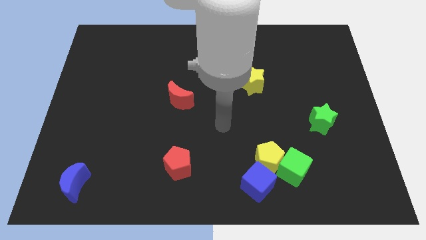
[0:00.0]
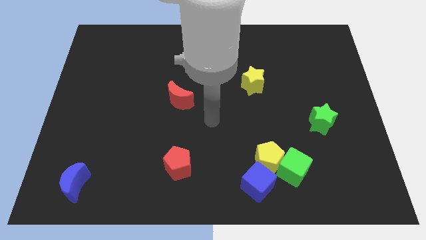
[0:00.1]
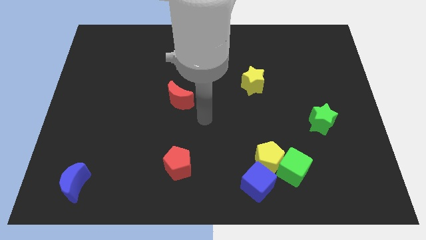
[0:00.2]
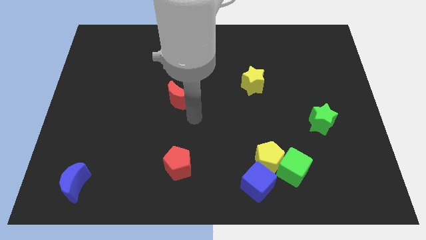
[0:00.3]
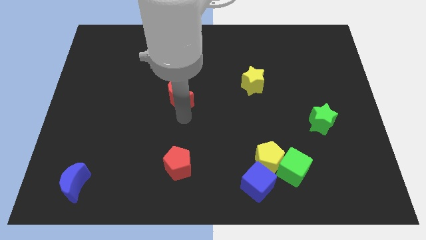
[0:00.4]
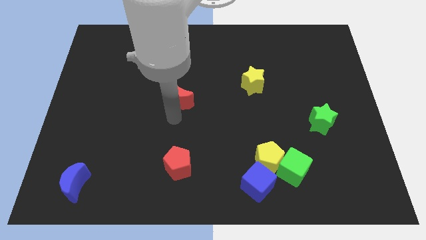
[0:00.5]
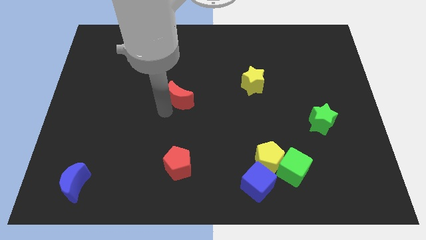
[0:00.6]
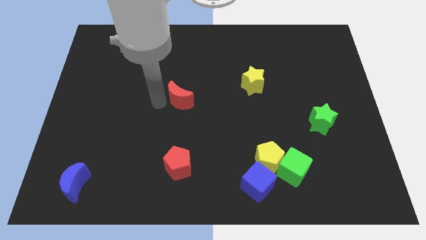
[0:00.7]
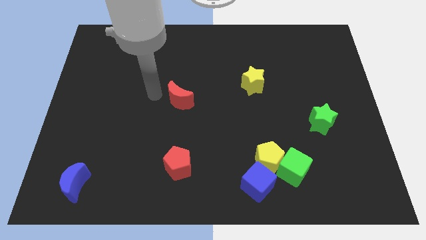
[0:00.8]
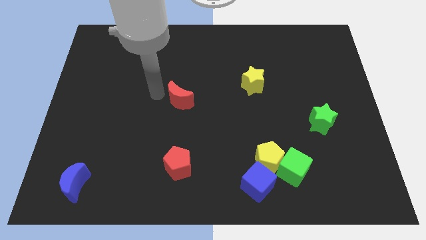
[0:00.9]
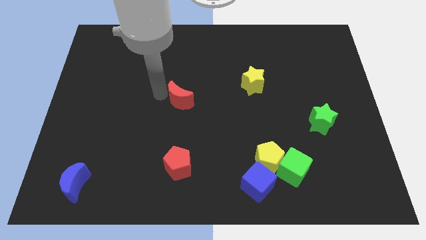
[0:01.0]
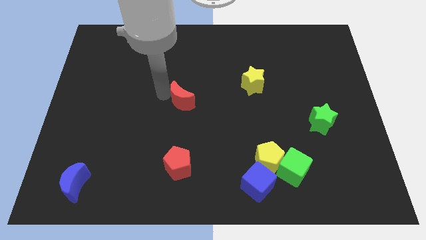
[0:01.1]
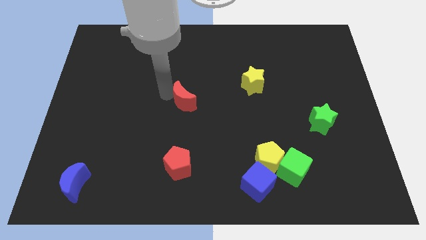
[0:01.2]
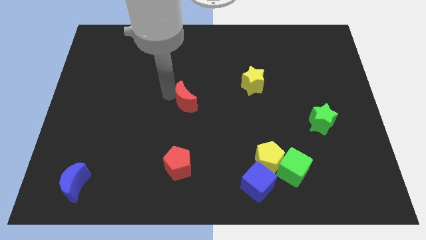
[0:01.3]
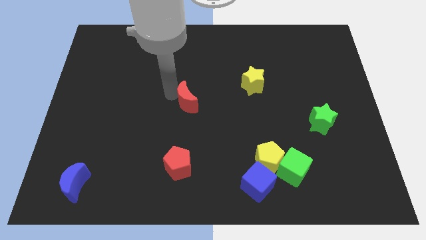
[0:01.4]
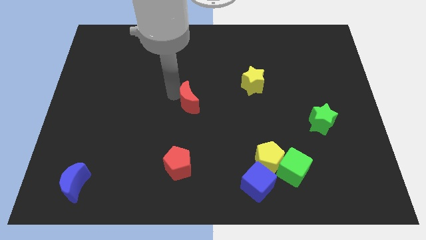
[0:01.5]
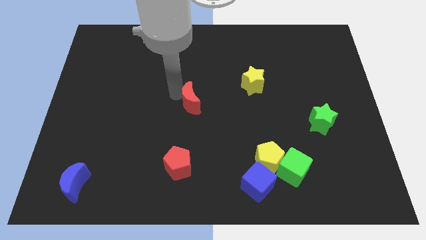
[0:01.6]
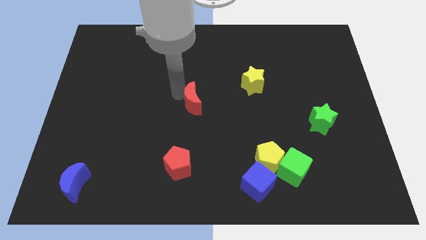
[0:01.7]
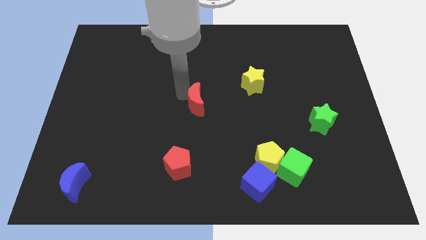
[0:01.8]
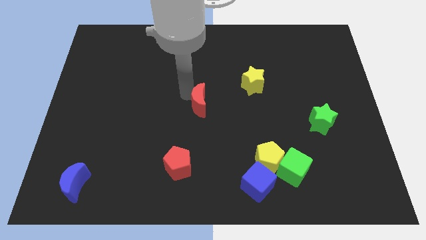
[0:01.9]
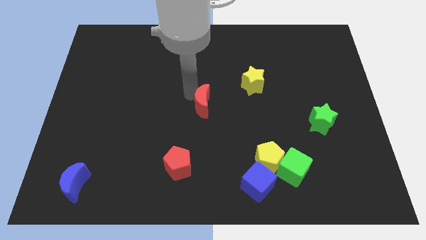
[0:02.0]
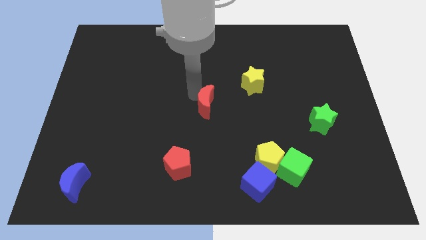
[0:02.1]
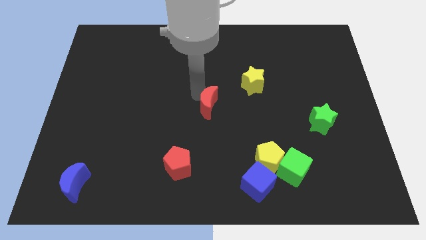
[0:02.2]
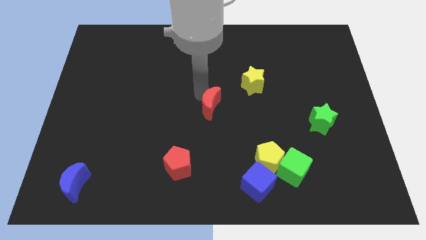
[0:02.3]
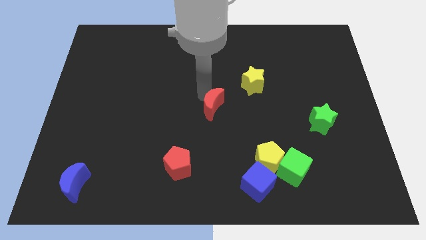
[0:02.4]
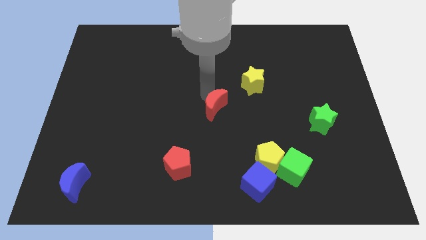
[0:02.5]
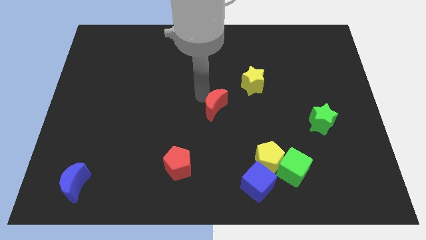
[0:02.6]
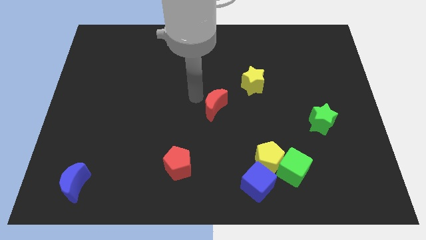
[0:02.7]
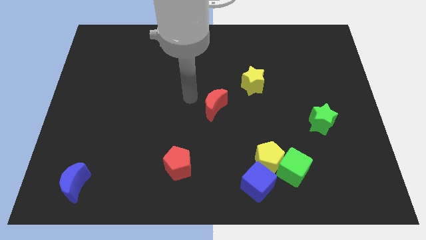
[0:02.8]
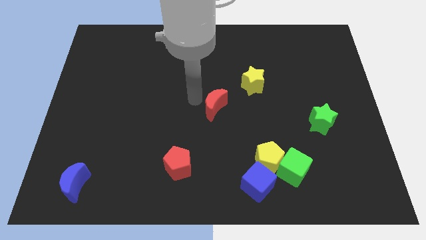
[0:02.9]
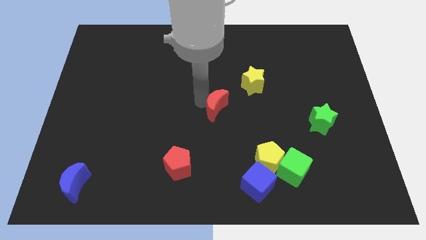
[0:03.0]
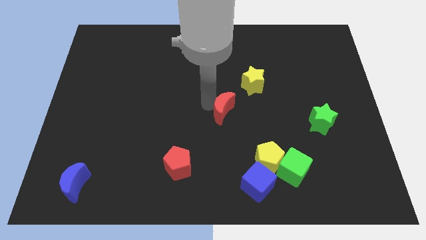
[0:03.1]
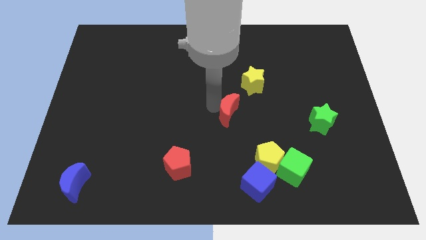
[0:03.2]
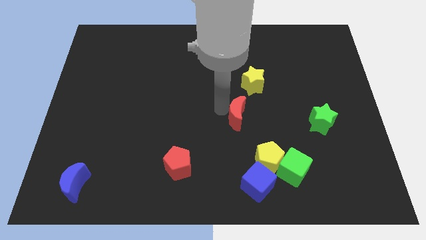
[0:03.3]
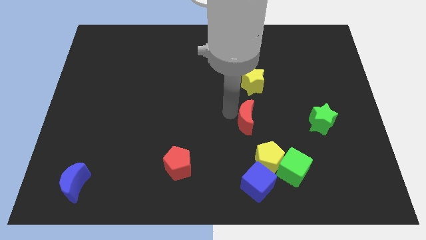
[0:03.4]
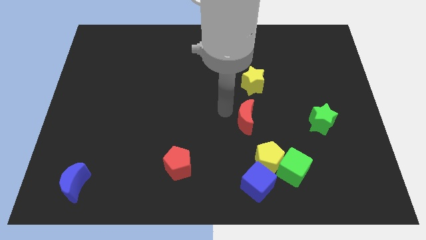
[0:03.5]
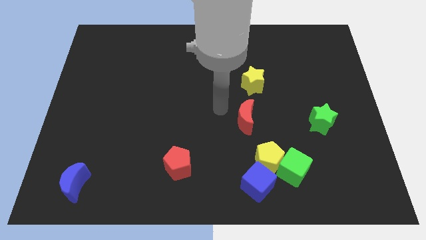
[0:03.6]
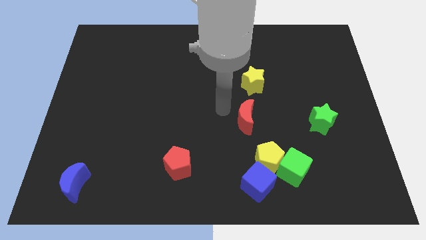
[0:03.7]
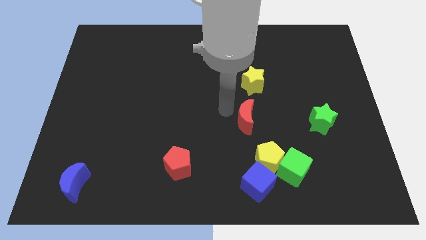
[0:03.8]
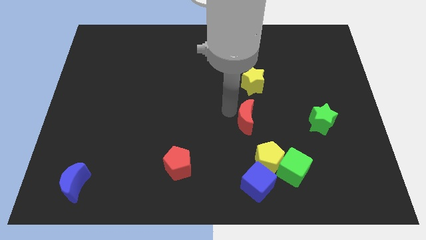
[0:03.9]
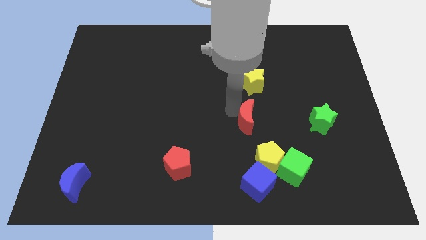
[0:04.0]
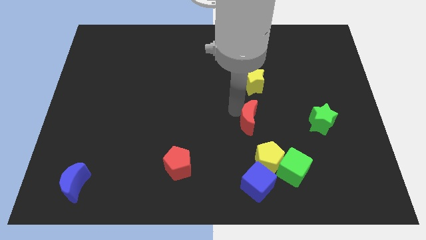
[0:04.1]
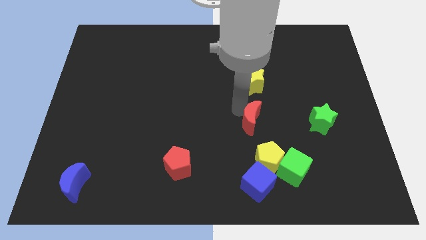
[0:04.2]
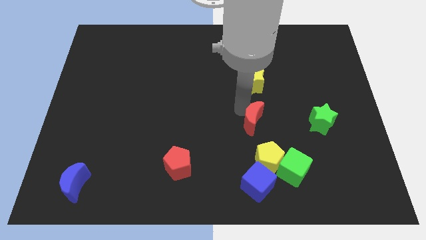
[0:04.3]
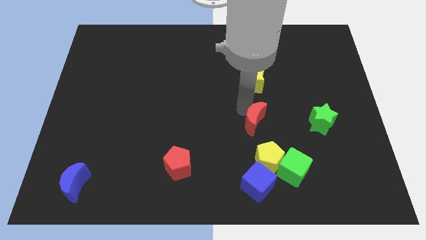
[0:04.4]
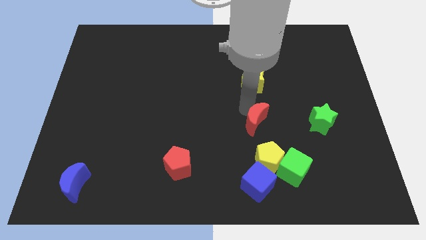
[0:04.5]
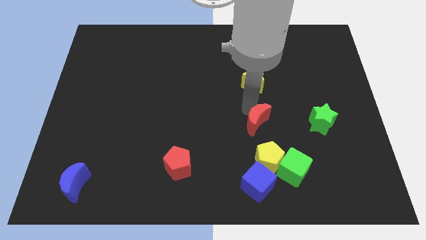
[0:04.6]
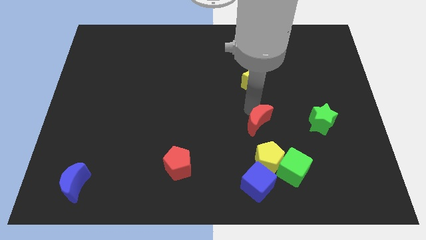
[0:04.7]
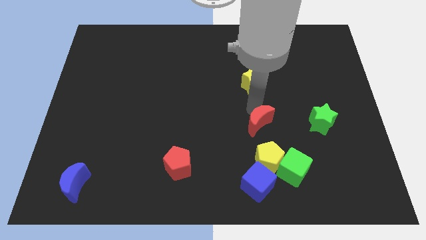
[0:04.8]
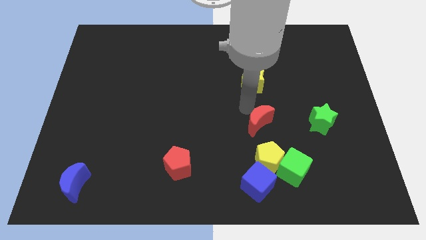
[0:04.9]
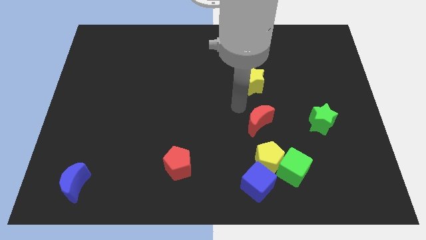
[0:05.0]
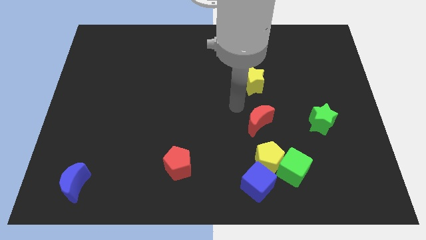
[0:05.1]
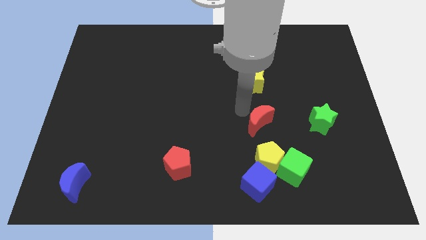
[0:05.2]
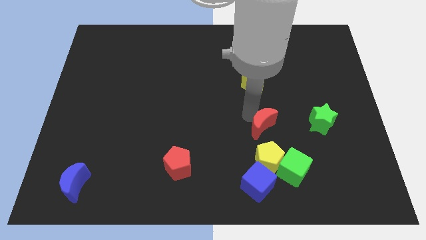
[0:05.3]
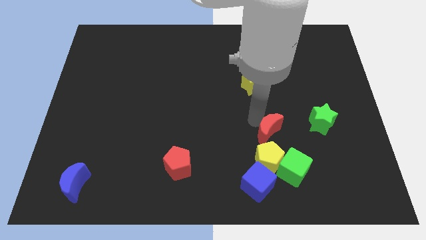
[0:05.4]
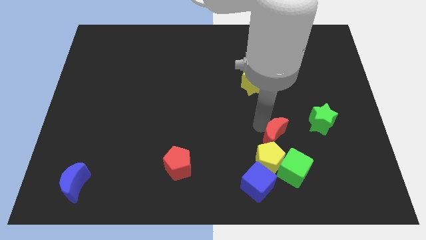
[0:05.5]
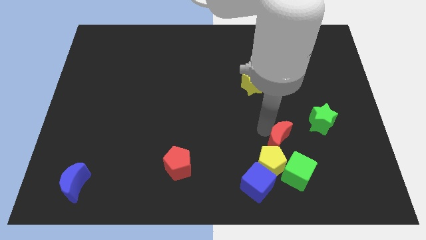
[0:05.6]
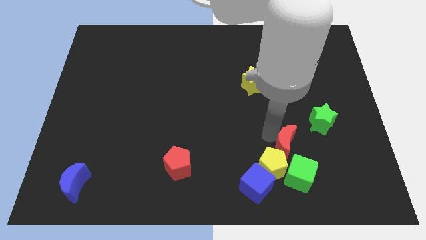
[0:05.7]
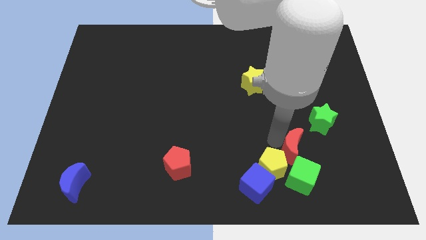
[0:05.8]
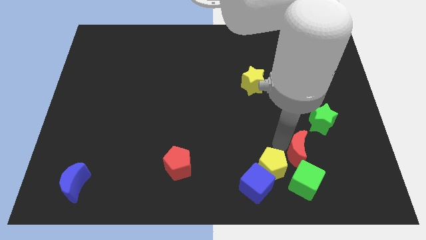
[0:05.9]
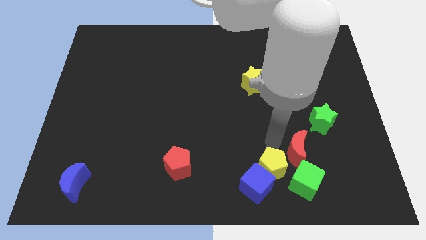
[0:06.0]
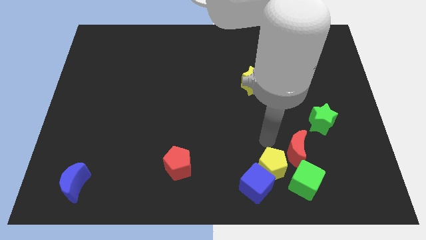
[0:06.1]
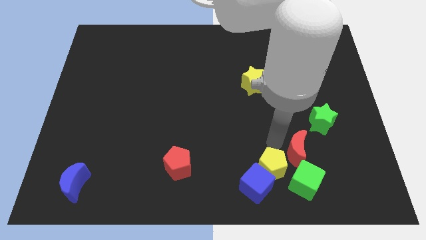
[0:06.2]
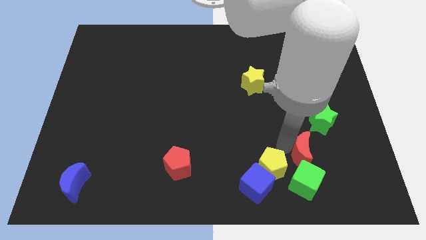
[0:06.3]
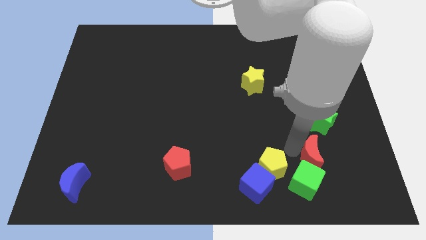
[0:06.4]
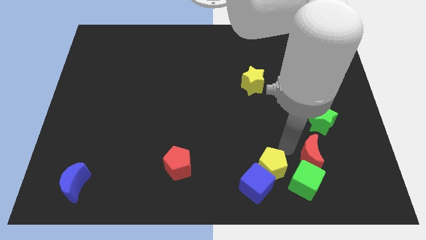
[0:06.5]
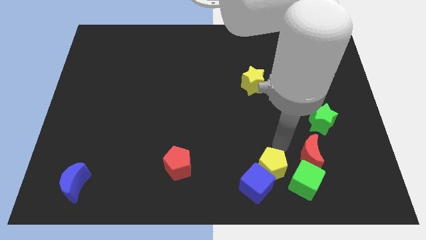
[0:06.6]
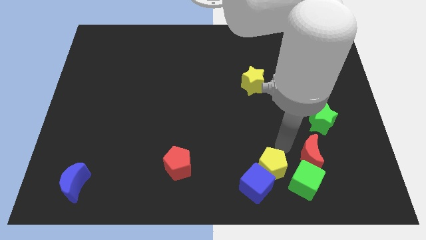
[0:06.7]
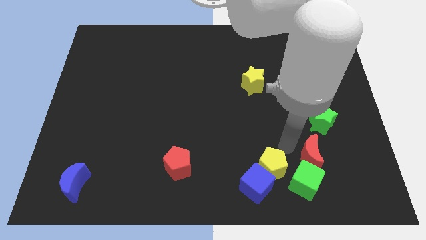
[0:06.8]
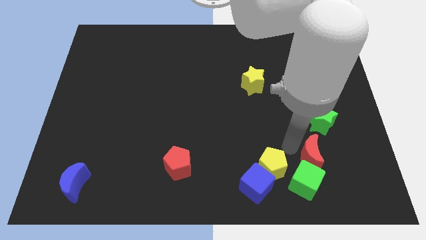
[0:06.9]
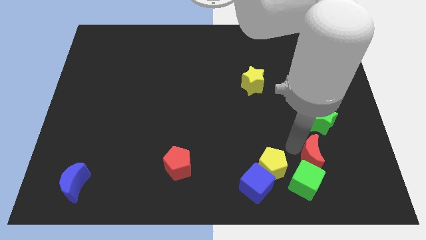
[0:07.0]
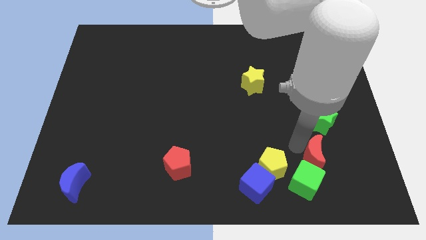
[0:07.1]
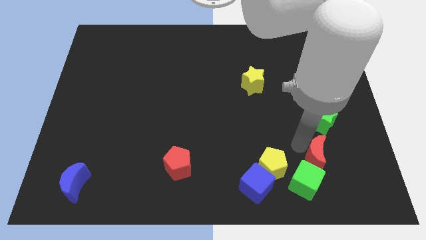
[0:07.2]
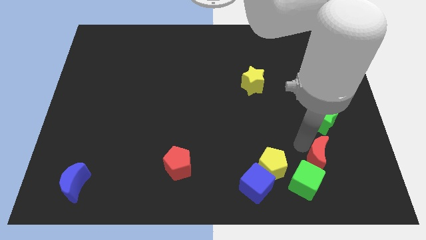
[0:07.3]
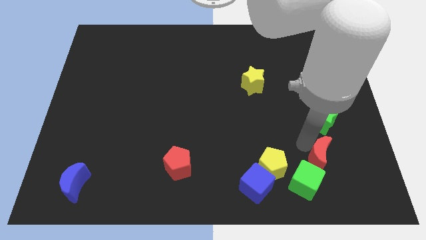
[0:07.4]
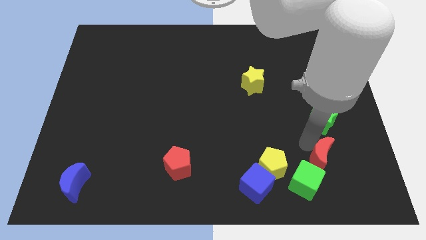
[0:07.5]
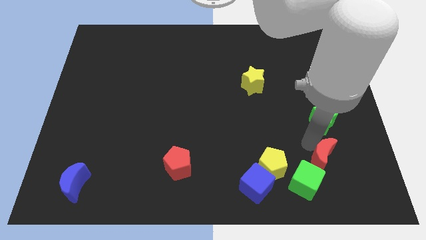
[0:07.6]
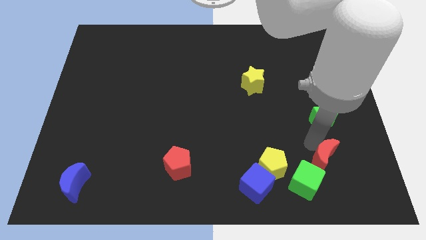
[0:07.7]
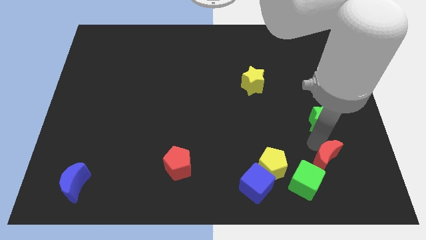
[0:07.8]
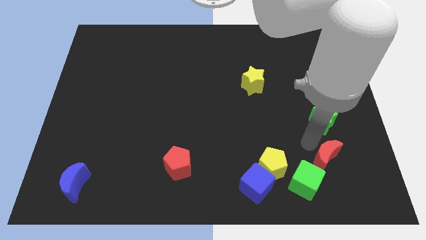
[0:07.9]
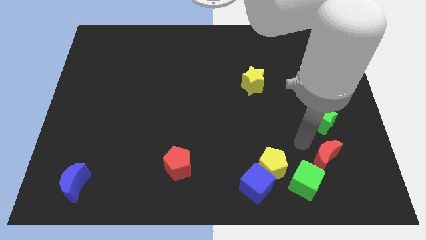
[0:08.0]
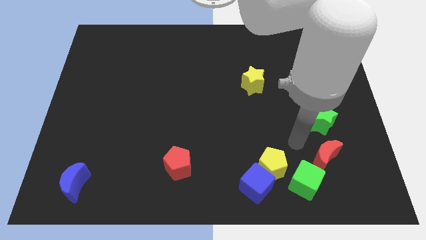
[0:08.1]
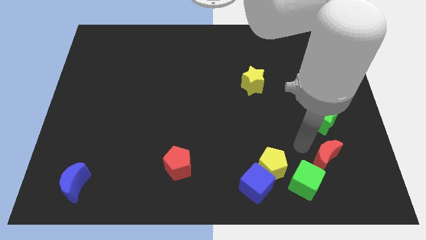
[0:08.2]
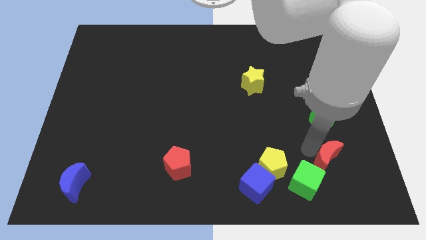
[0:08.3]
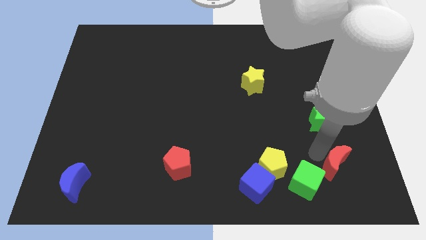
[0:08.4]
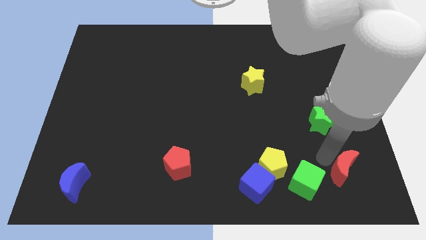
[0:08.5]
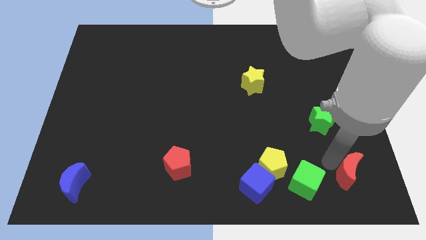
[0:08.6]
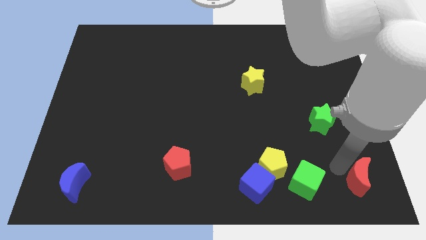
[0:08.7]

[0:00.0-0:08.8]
push the red moon to the lower right corner
